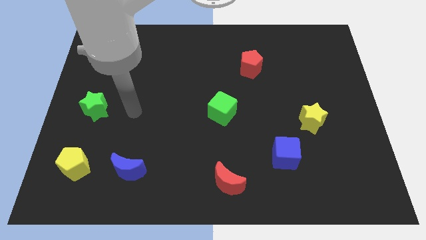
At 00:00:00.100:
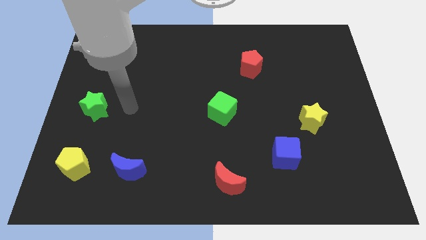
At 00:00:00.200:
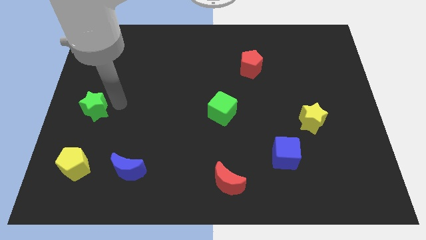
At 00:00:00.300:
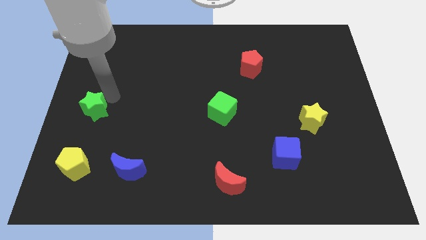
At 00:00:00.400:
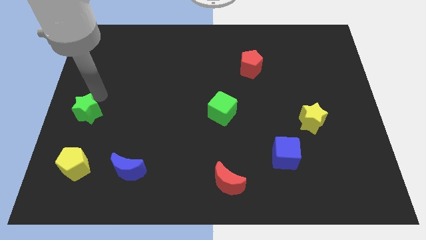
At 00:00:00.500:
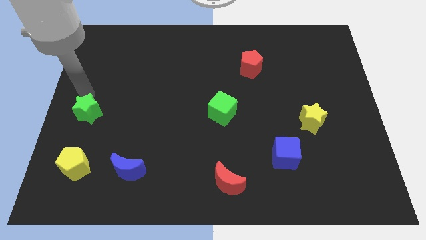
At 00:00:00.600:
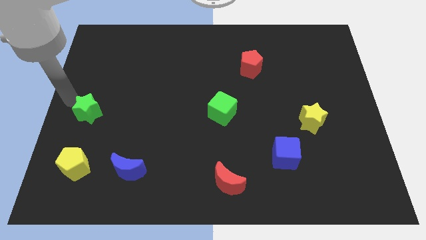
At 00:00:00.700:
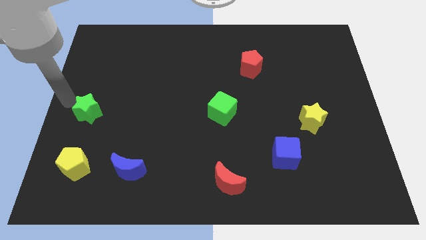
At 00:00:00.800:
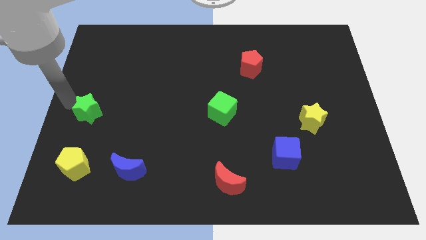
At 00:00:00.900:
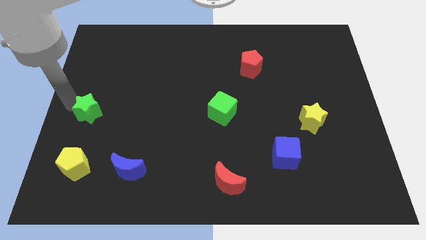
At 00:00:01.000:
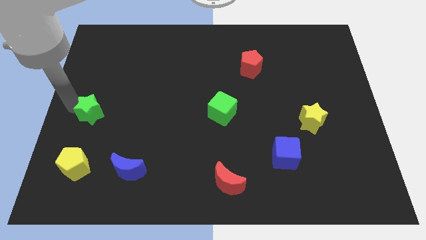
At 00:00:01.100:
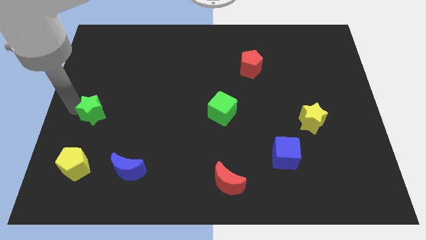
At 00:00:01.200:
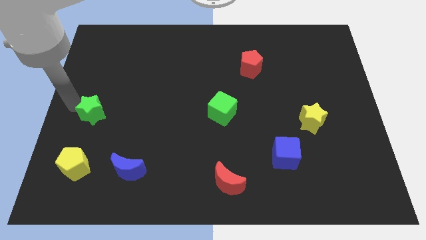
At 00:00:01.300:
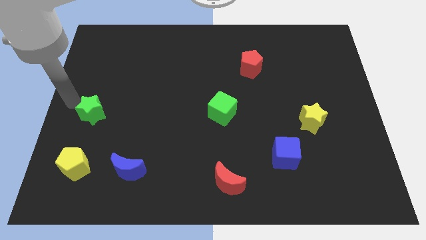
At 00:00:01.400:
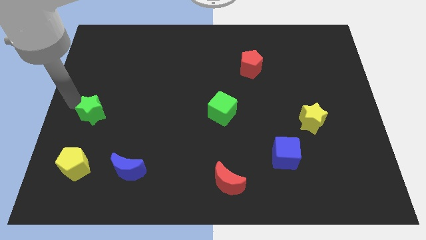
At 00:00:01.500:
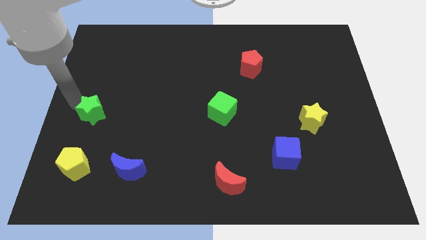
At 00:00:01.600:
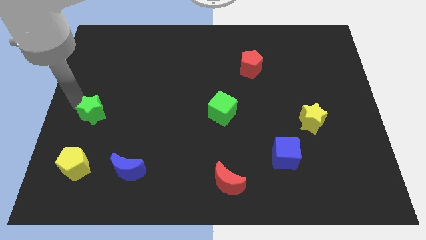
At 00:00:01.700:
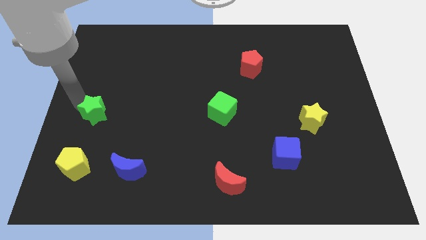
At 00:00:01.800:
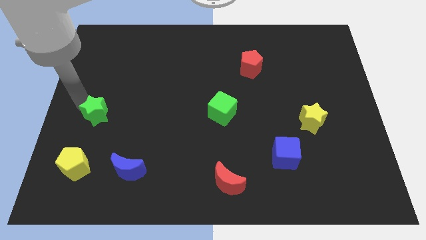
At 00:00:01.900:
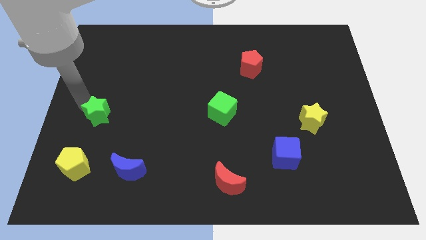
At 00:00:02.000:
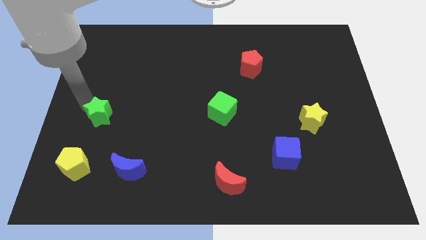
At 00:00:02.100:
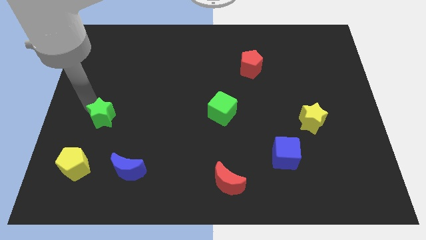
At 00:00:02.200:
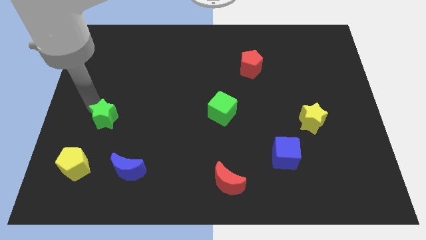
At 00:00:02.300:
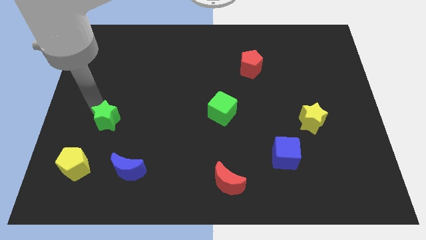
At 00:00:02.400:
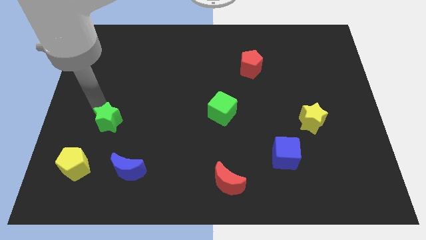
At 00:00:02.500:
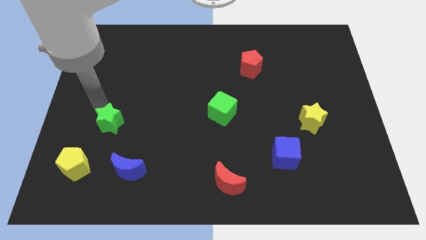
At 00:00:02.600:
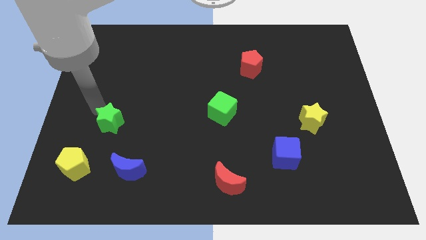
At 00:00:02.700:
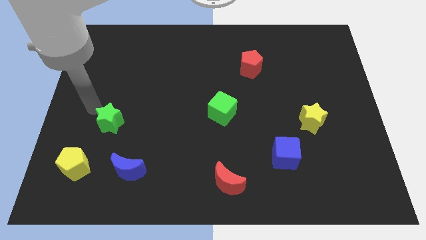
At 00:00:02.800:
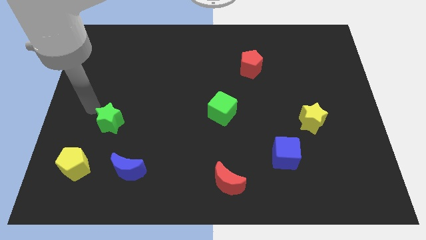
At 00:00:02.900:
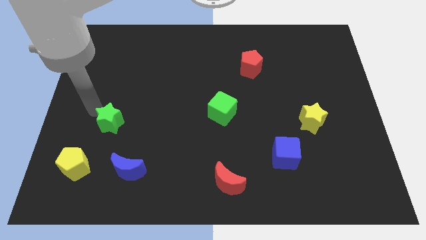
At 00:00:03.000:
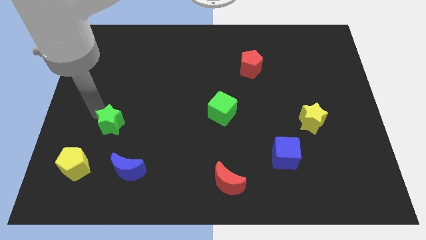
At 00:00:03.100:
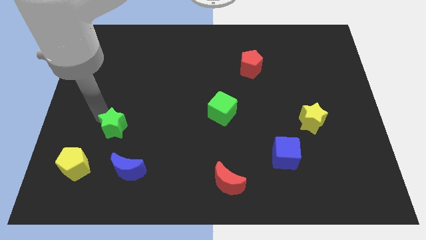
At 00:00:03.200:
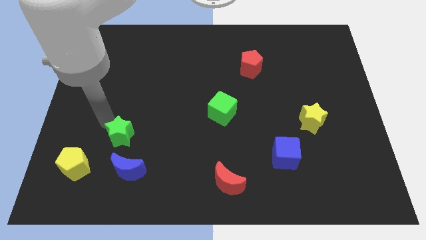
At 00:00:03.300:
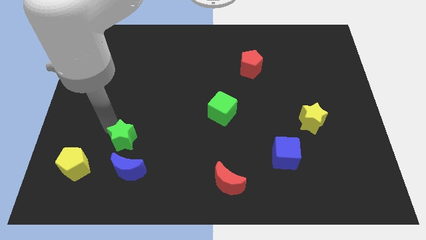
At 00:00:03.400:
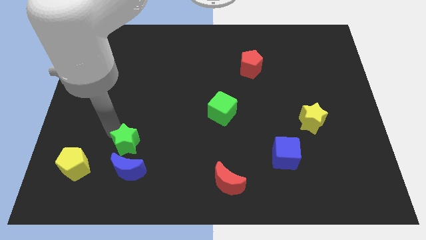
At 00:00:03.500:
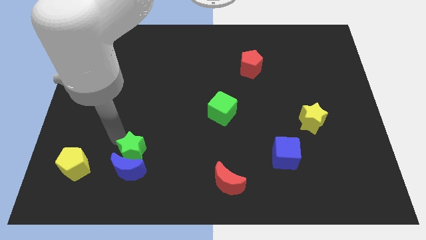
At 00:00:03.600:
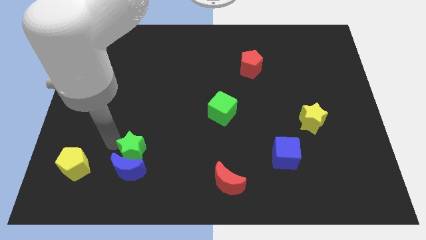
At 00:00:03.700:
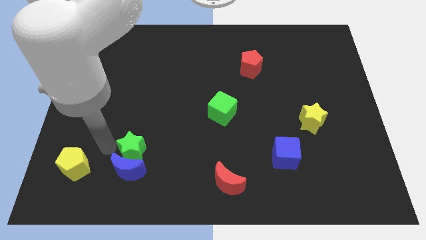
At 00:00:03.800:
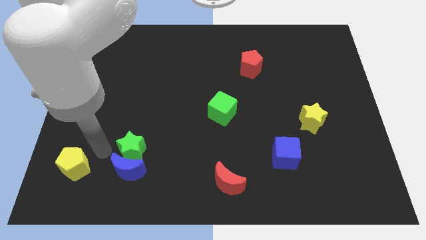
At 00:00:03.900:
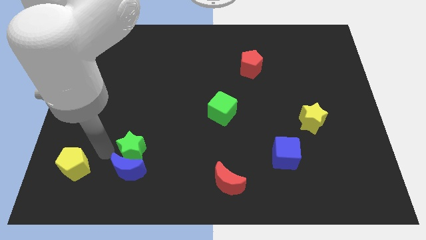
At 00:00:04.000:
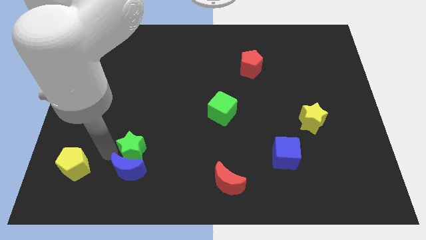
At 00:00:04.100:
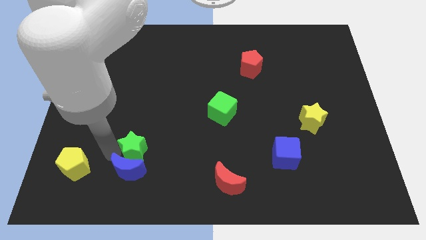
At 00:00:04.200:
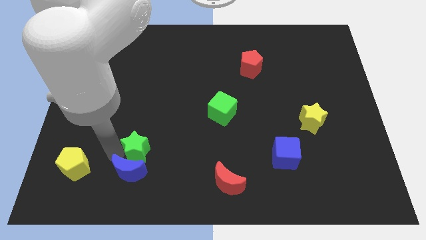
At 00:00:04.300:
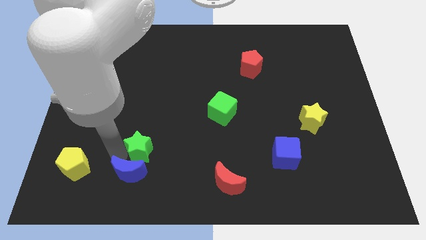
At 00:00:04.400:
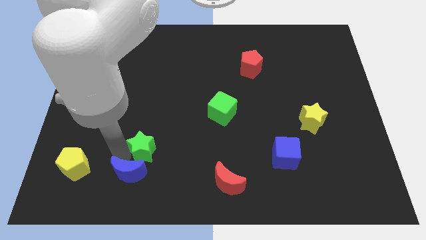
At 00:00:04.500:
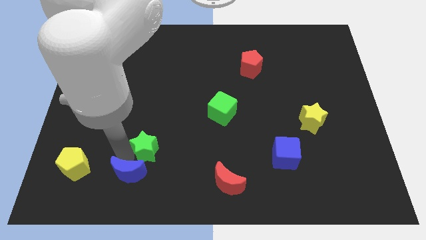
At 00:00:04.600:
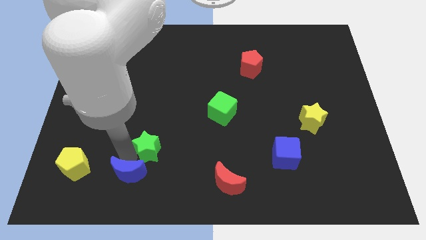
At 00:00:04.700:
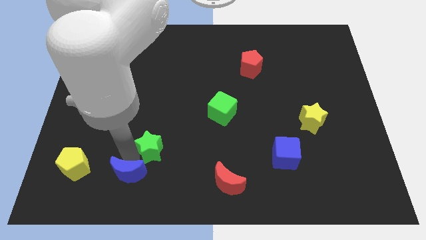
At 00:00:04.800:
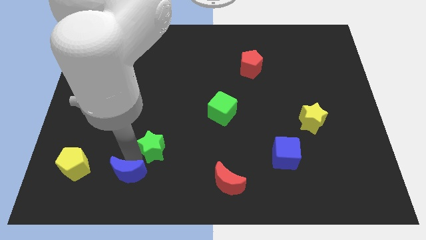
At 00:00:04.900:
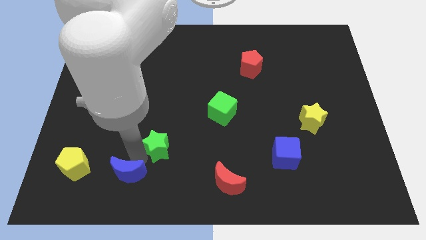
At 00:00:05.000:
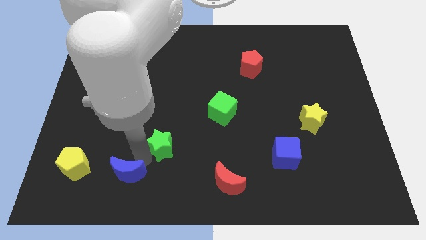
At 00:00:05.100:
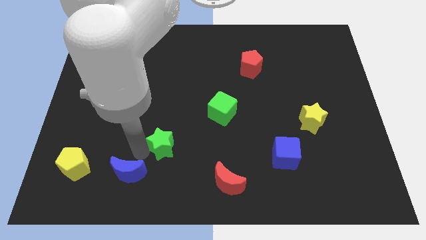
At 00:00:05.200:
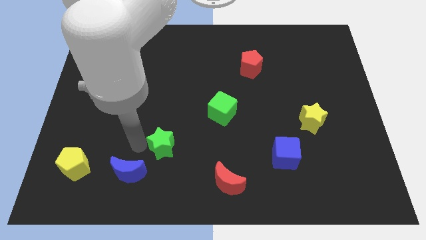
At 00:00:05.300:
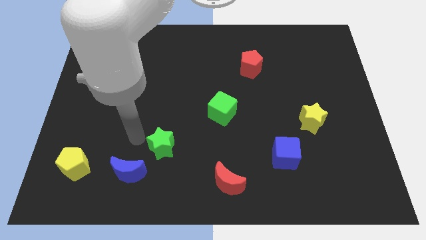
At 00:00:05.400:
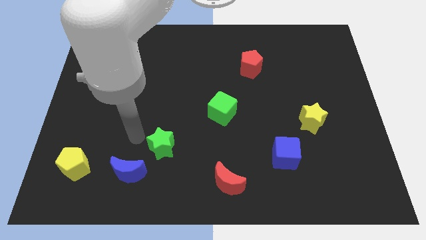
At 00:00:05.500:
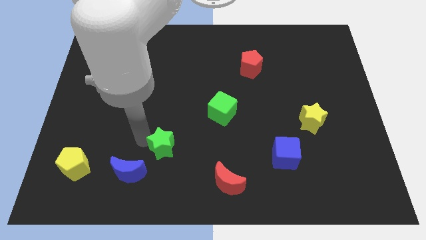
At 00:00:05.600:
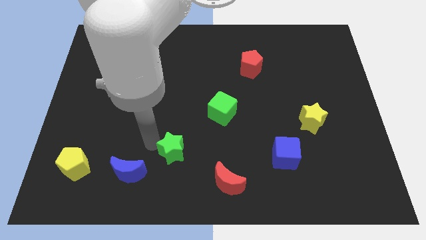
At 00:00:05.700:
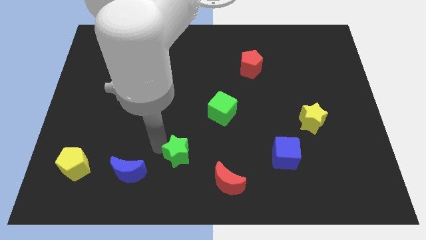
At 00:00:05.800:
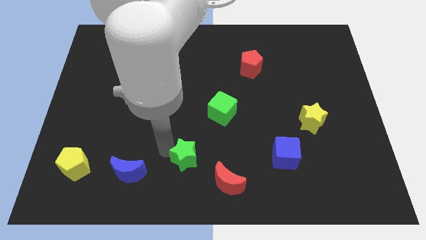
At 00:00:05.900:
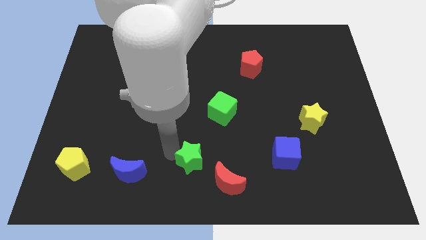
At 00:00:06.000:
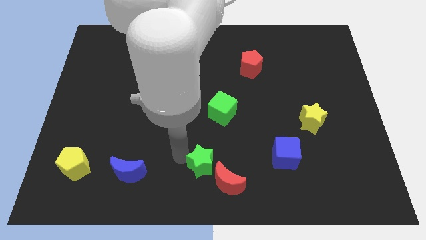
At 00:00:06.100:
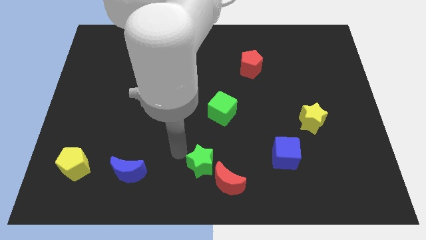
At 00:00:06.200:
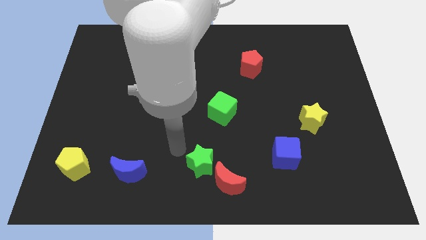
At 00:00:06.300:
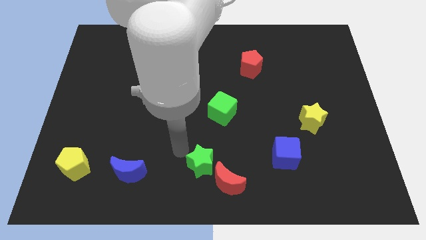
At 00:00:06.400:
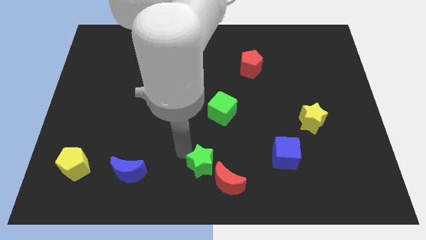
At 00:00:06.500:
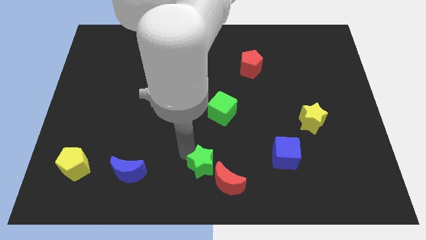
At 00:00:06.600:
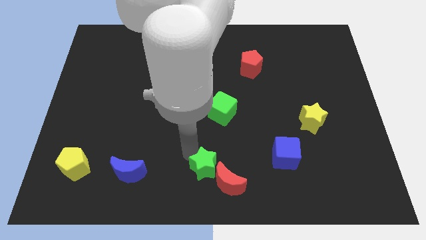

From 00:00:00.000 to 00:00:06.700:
put the green star towards the red moon
